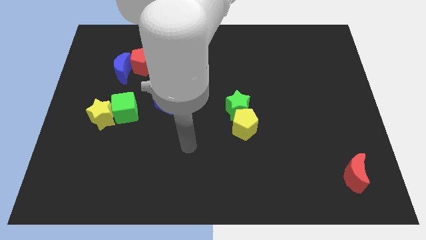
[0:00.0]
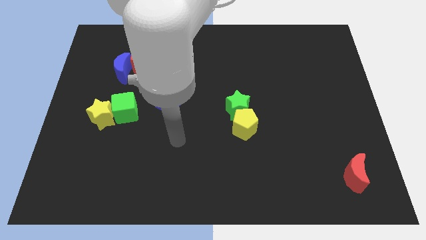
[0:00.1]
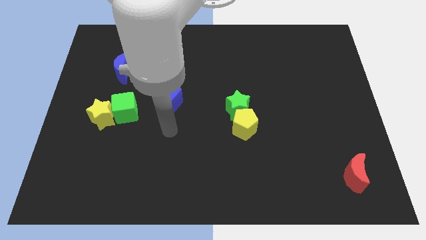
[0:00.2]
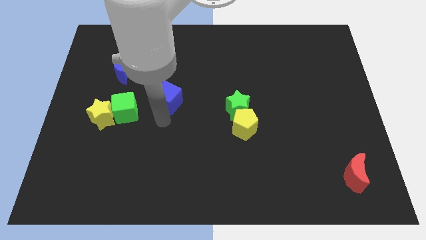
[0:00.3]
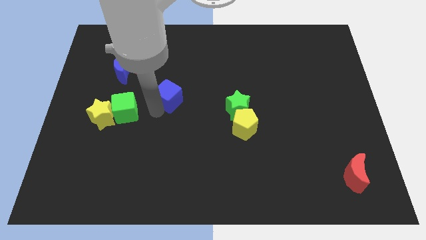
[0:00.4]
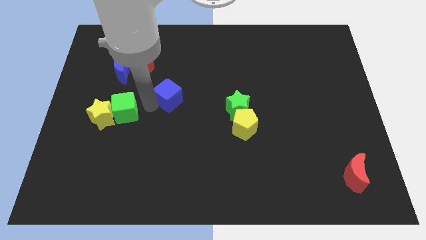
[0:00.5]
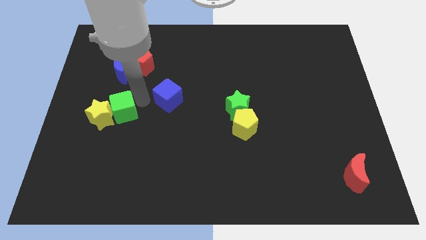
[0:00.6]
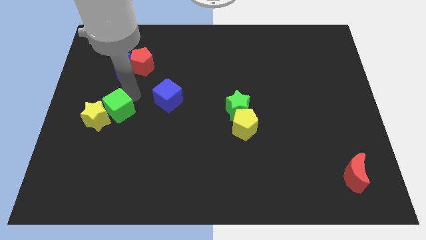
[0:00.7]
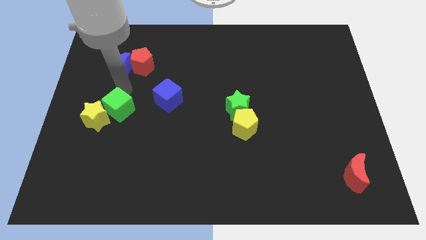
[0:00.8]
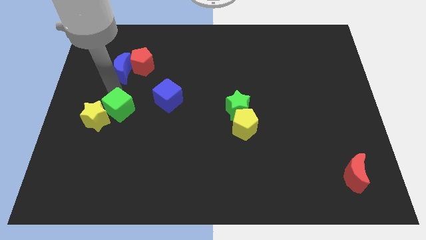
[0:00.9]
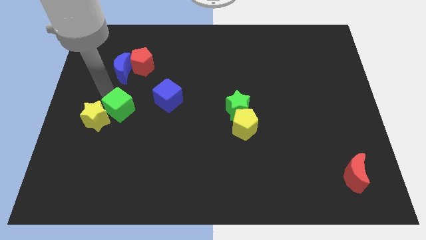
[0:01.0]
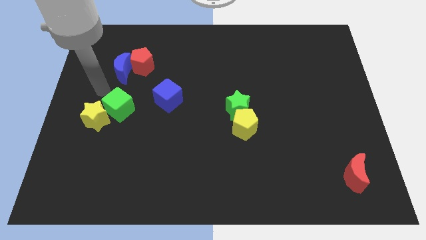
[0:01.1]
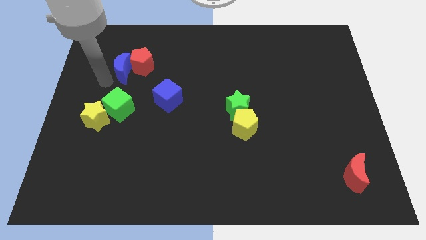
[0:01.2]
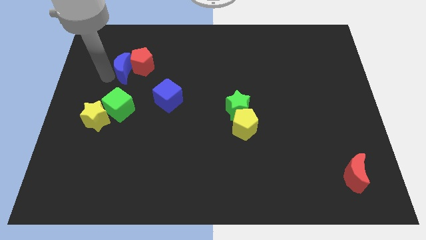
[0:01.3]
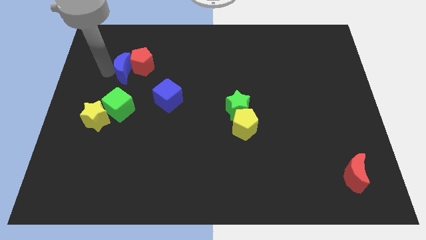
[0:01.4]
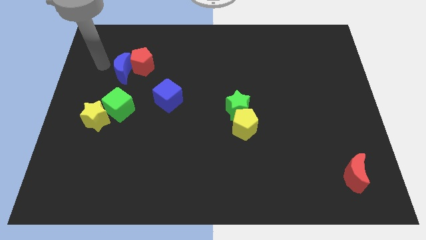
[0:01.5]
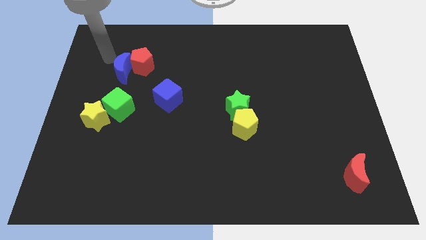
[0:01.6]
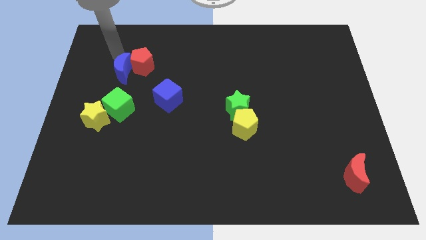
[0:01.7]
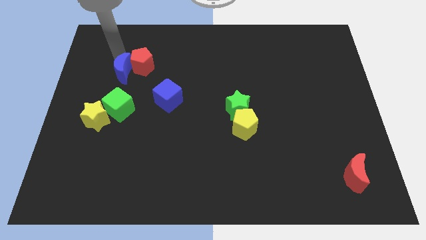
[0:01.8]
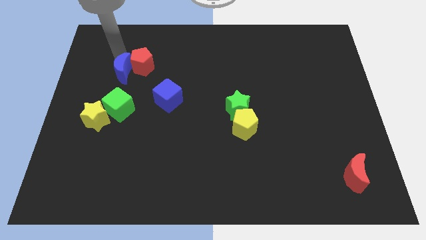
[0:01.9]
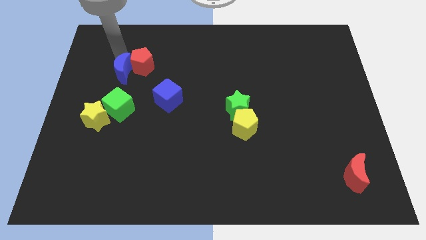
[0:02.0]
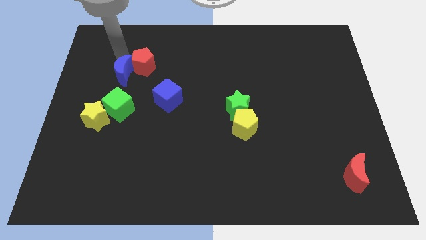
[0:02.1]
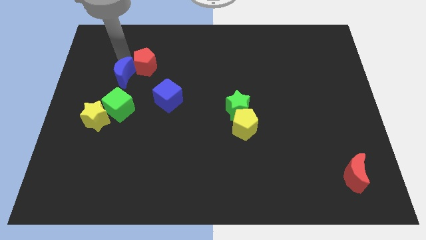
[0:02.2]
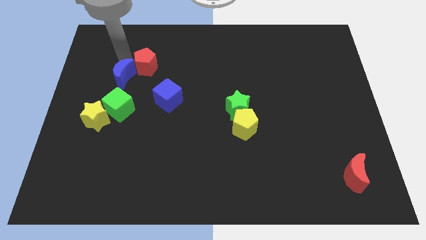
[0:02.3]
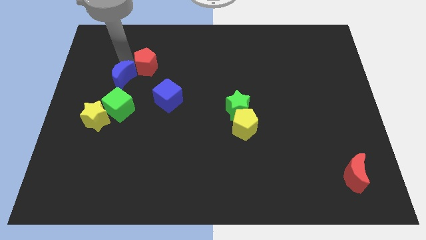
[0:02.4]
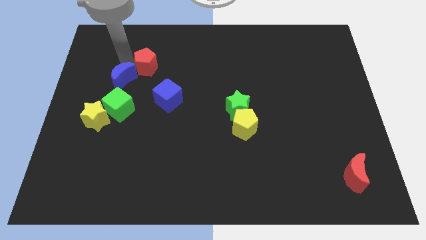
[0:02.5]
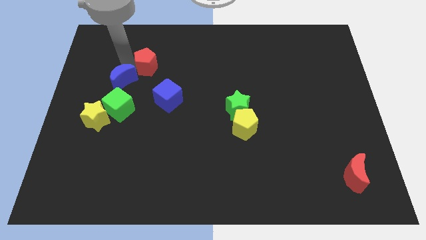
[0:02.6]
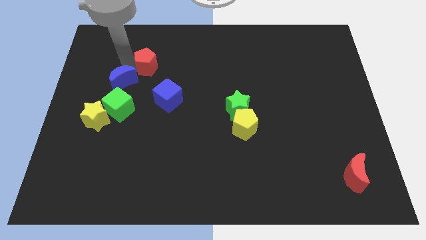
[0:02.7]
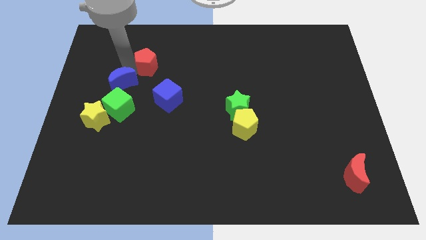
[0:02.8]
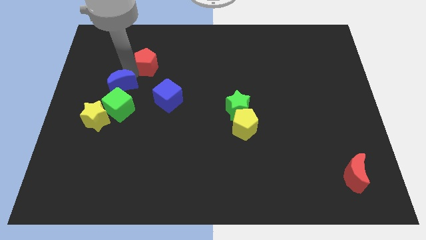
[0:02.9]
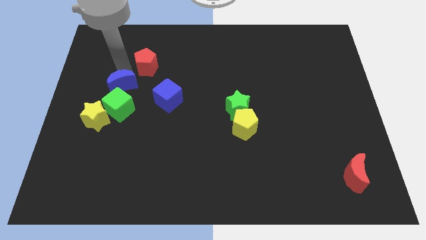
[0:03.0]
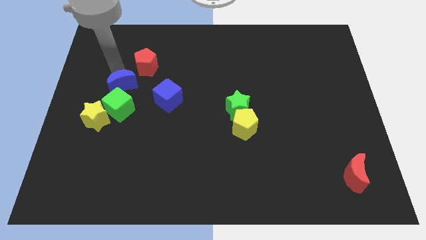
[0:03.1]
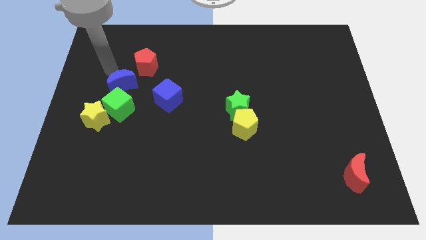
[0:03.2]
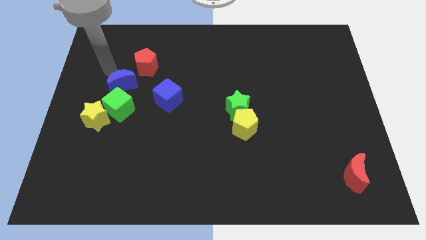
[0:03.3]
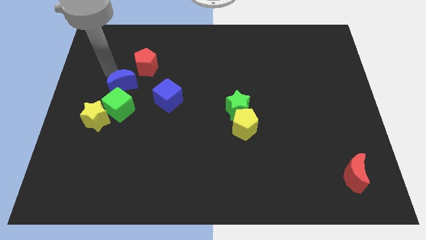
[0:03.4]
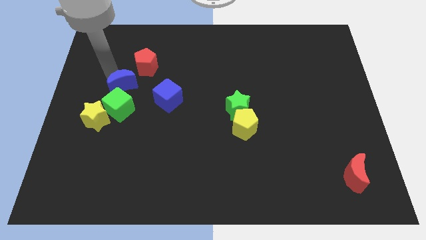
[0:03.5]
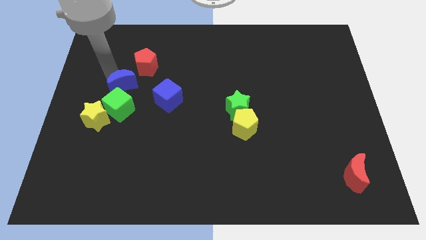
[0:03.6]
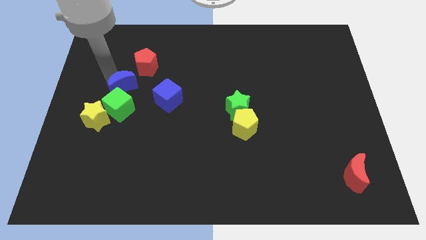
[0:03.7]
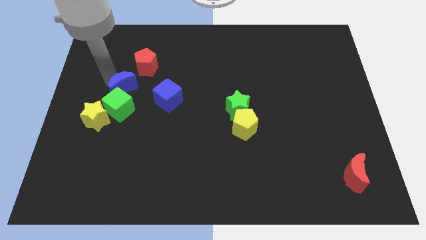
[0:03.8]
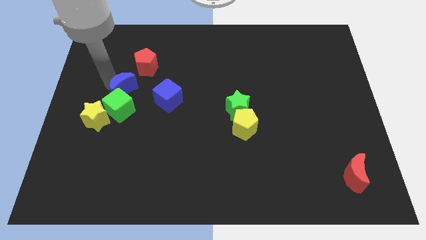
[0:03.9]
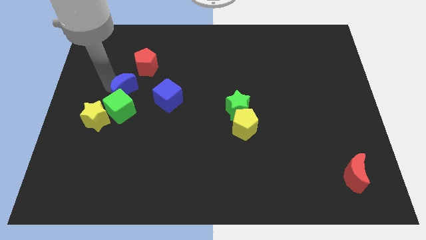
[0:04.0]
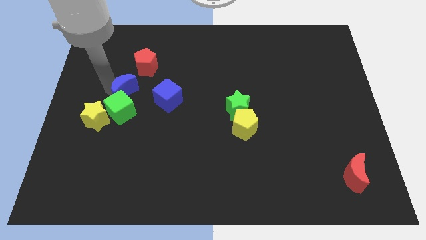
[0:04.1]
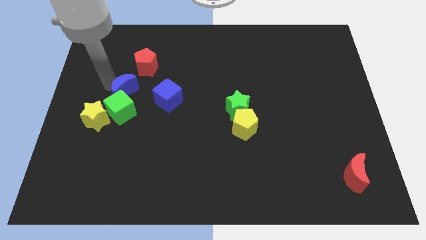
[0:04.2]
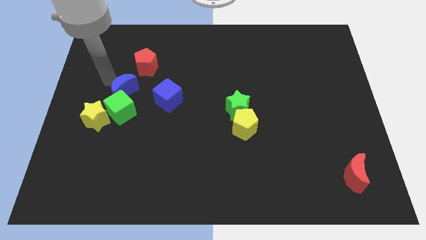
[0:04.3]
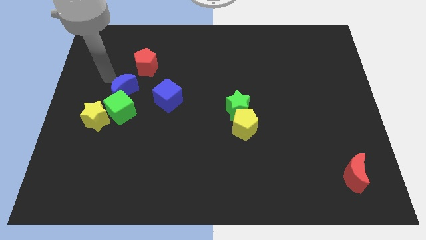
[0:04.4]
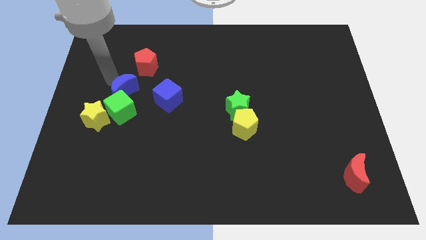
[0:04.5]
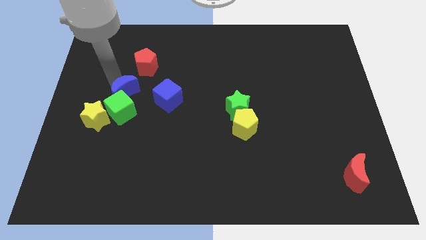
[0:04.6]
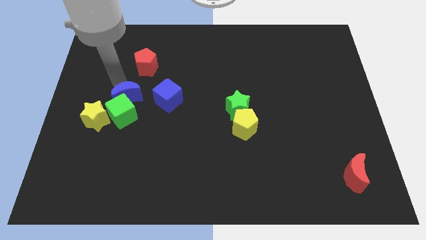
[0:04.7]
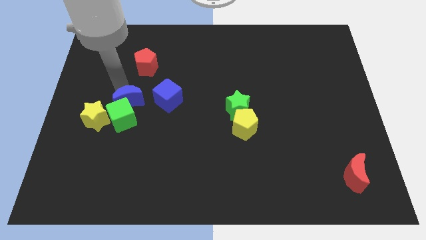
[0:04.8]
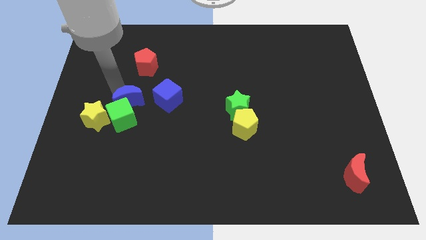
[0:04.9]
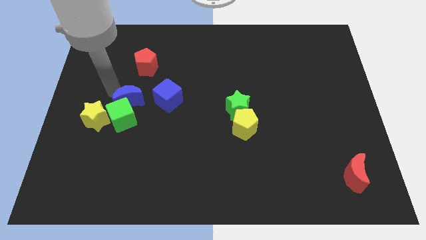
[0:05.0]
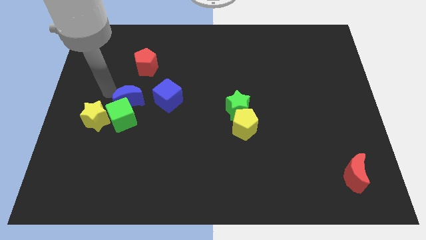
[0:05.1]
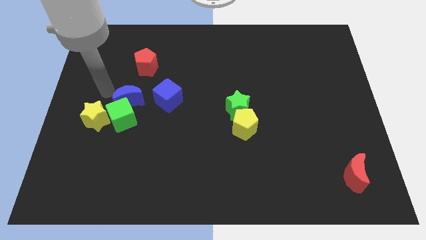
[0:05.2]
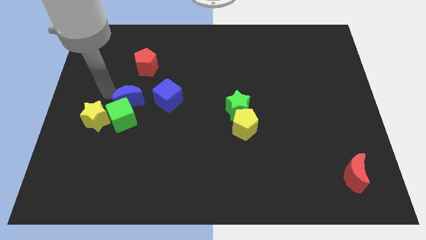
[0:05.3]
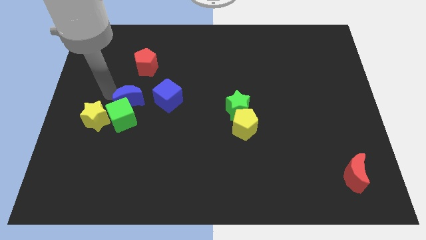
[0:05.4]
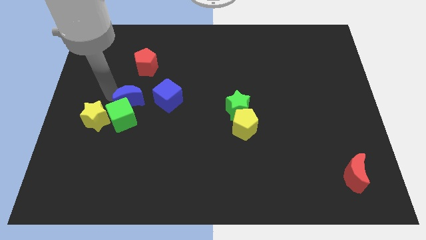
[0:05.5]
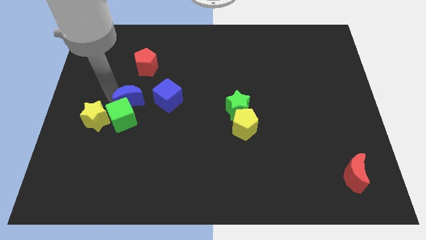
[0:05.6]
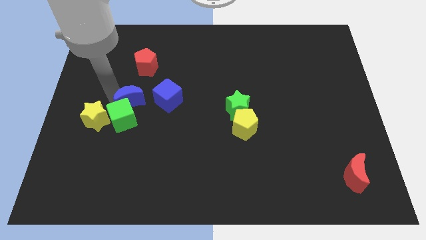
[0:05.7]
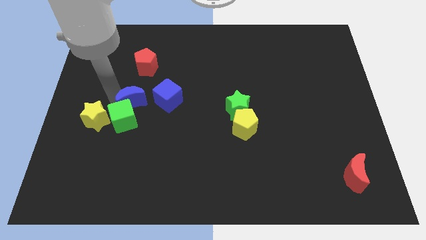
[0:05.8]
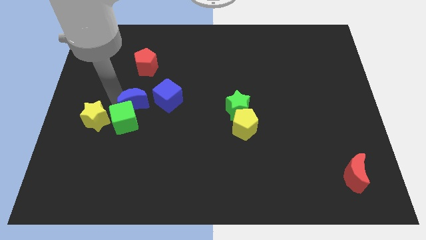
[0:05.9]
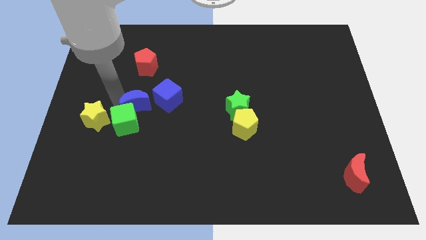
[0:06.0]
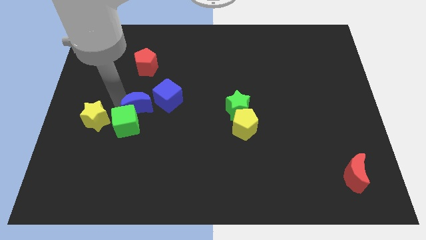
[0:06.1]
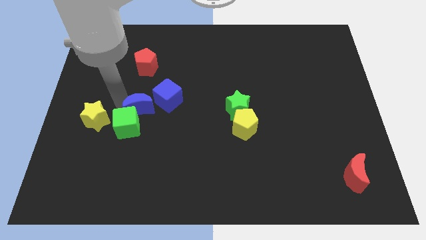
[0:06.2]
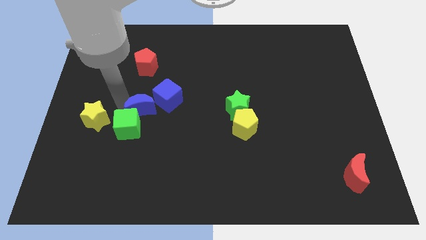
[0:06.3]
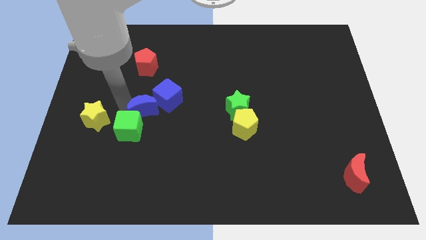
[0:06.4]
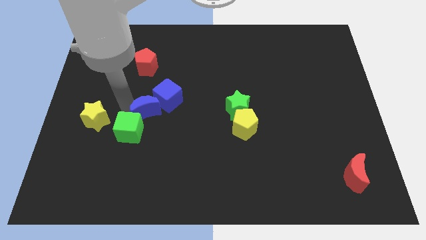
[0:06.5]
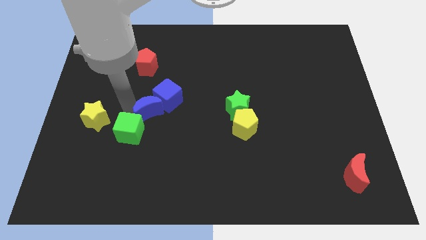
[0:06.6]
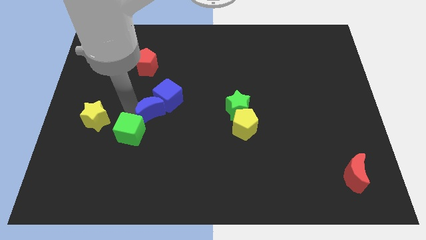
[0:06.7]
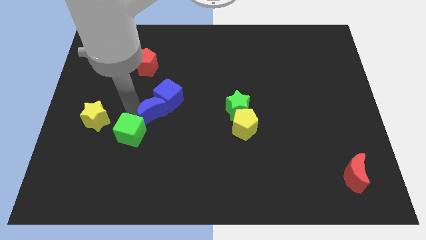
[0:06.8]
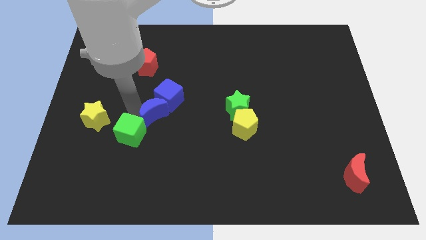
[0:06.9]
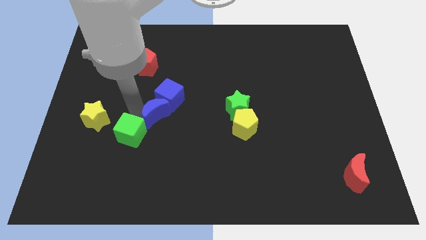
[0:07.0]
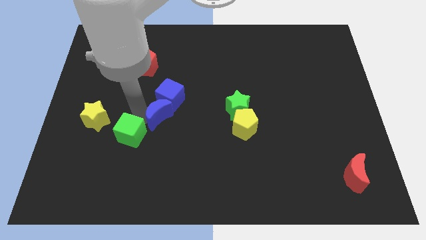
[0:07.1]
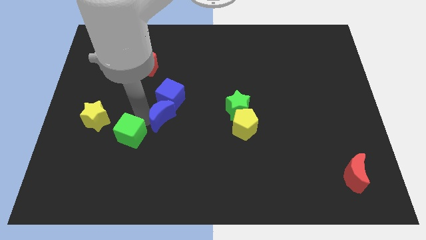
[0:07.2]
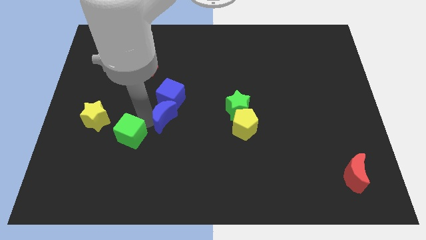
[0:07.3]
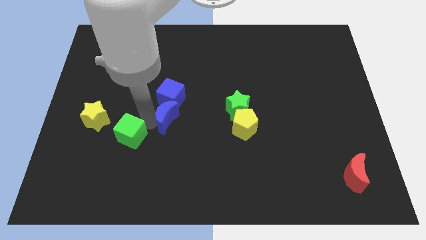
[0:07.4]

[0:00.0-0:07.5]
slide the blue moon to the bottom right of the blue cube
